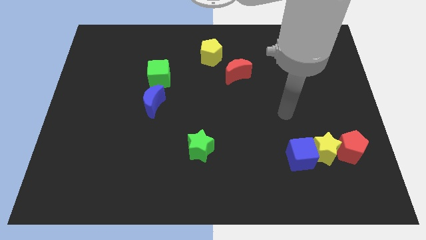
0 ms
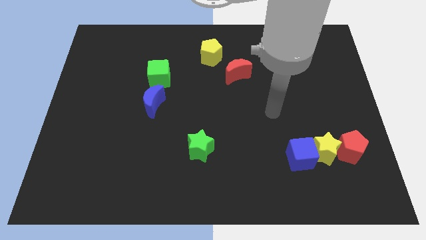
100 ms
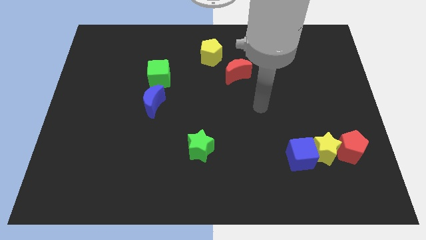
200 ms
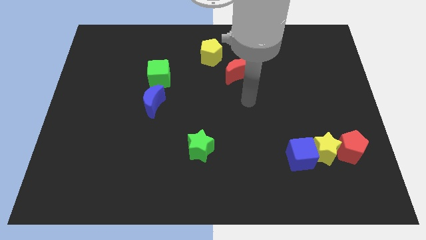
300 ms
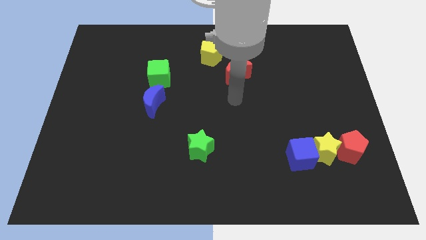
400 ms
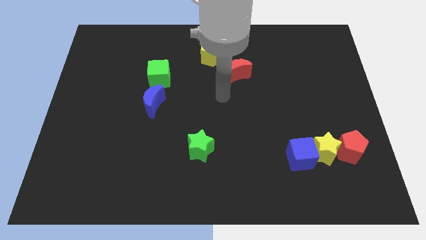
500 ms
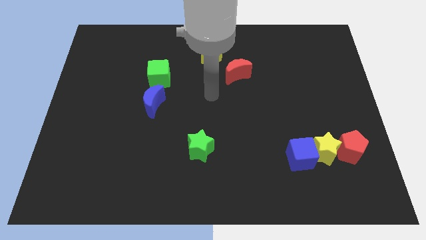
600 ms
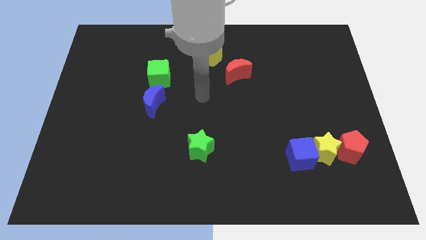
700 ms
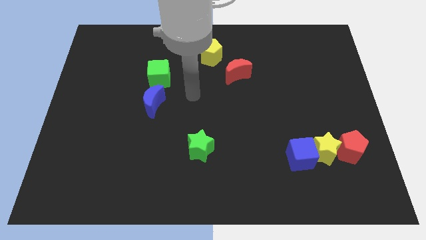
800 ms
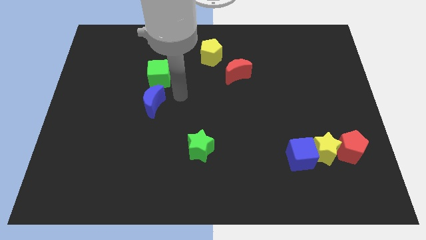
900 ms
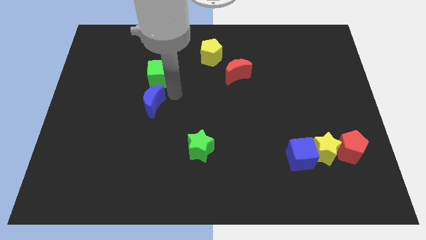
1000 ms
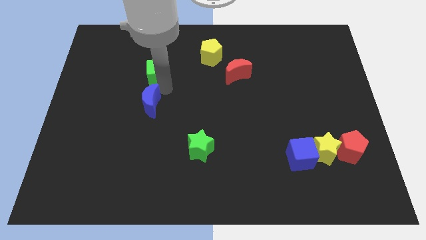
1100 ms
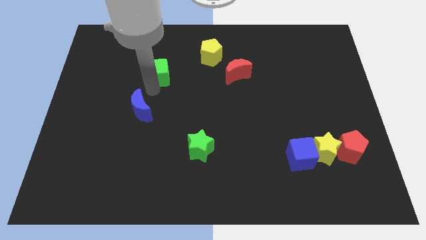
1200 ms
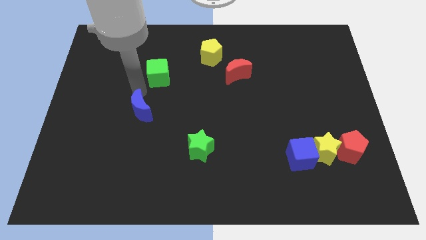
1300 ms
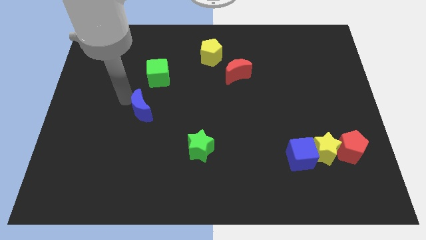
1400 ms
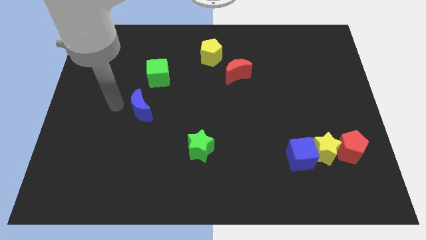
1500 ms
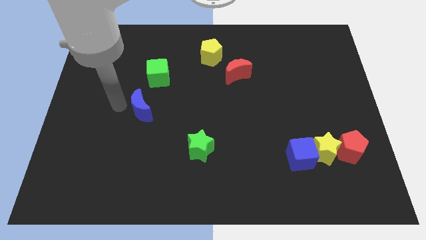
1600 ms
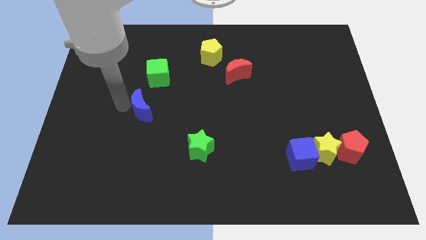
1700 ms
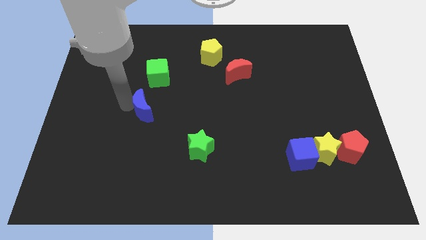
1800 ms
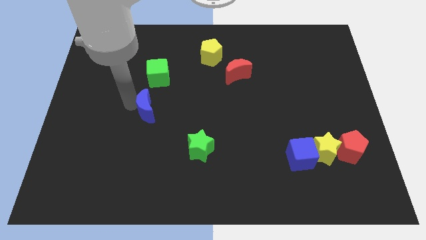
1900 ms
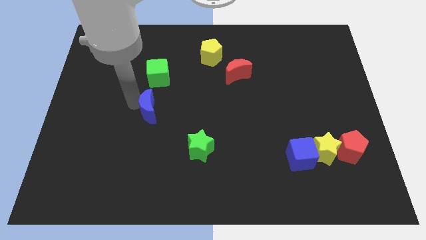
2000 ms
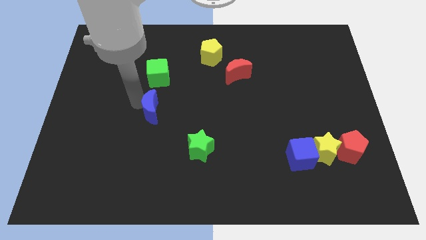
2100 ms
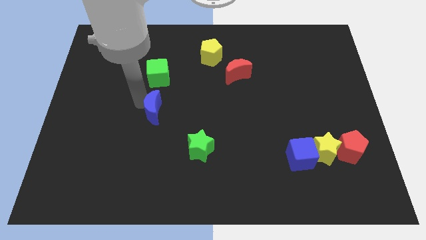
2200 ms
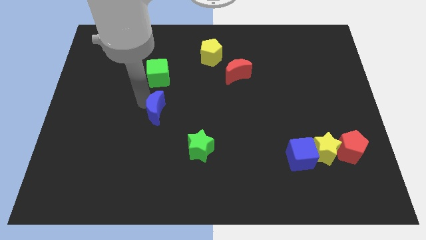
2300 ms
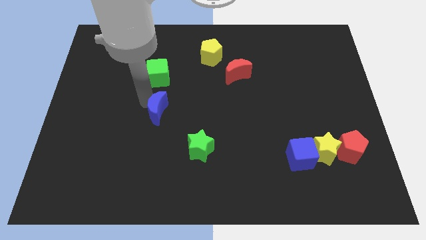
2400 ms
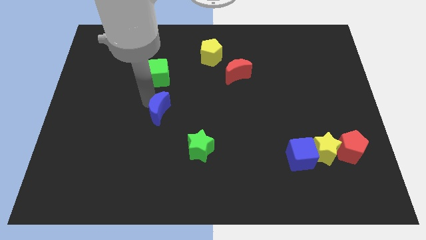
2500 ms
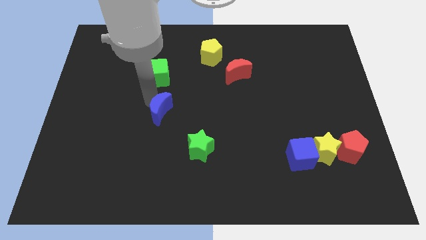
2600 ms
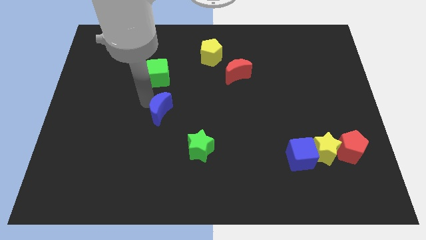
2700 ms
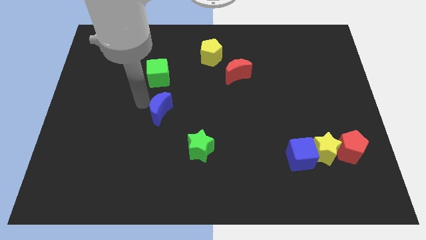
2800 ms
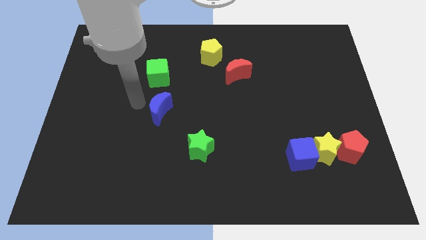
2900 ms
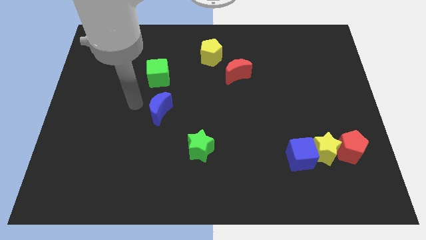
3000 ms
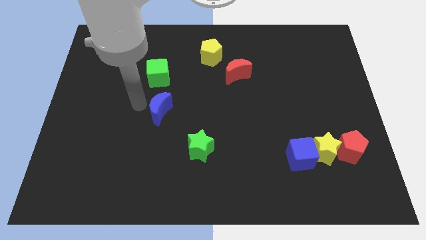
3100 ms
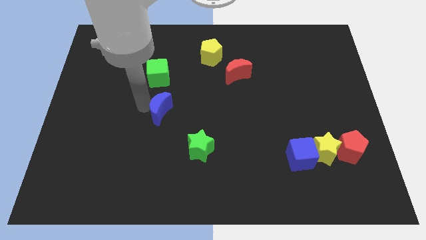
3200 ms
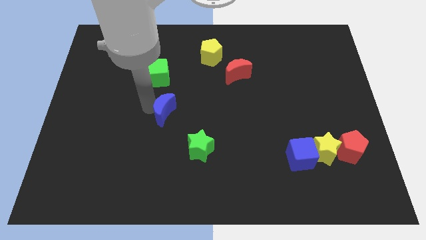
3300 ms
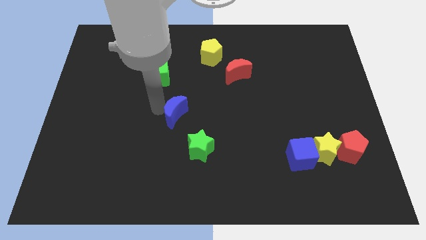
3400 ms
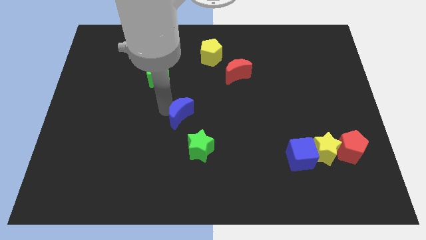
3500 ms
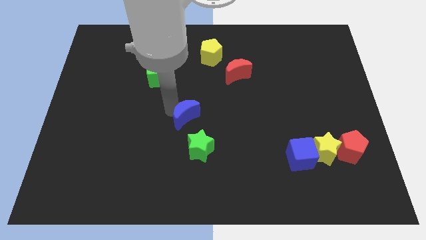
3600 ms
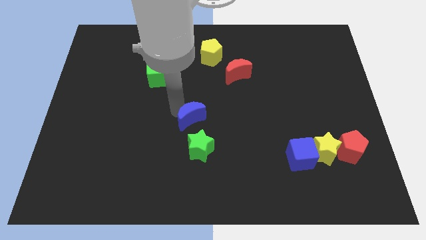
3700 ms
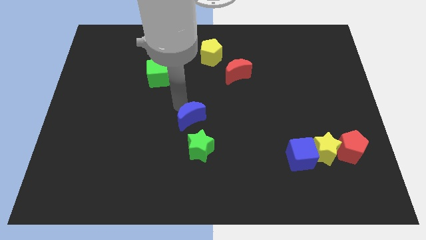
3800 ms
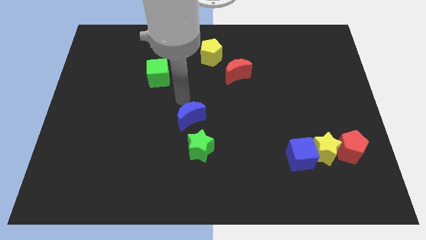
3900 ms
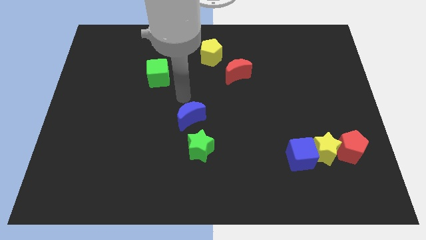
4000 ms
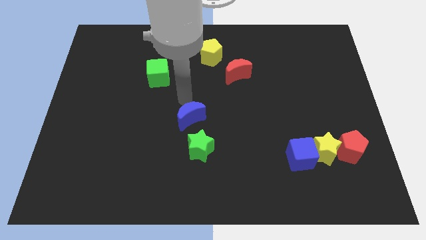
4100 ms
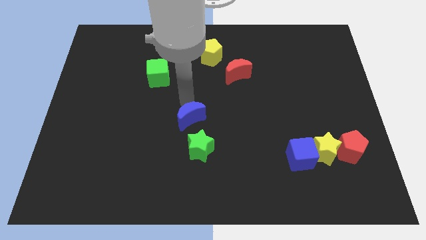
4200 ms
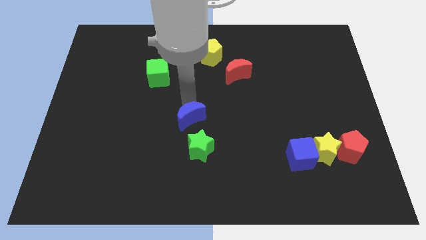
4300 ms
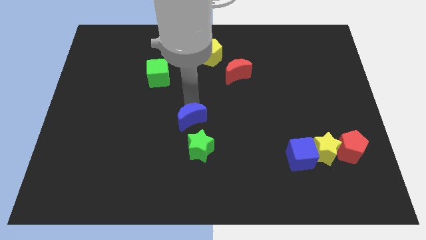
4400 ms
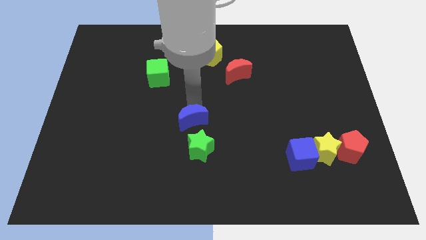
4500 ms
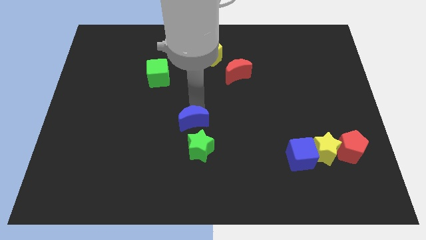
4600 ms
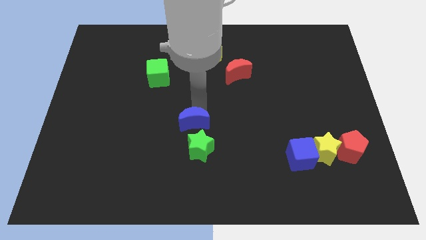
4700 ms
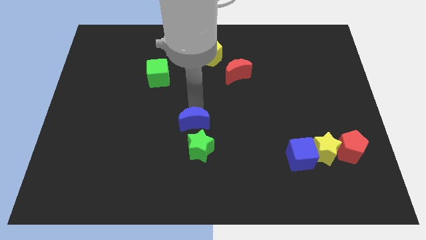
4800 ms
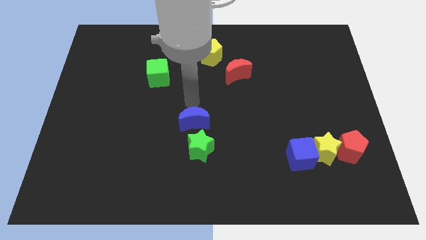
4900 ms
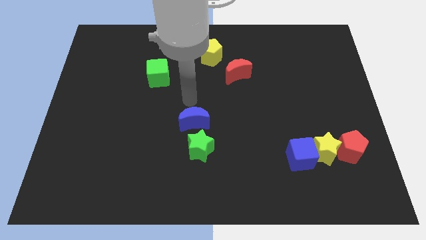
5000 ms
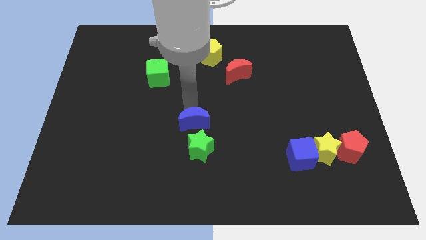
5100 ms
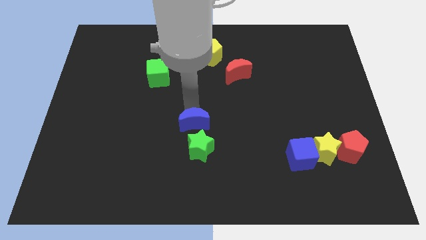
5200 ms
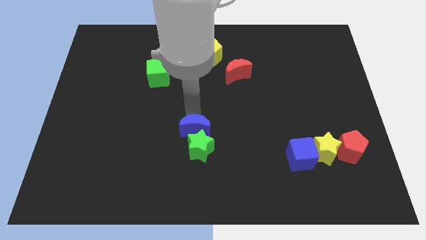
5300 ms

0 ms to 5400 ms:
move the blue moon towards the green star

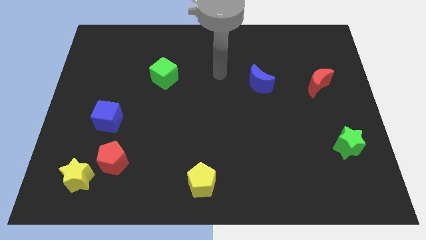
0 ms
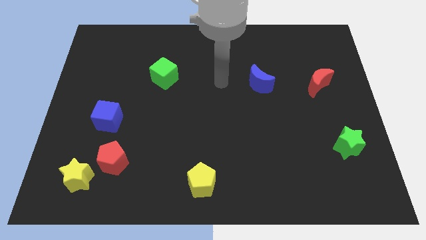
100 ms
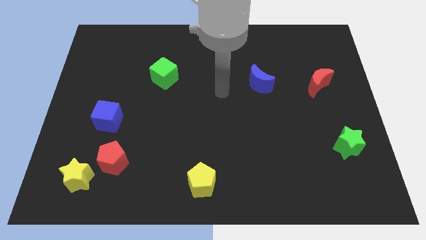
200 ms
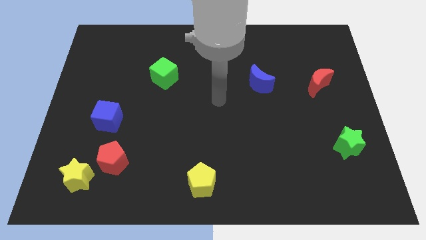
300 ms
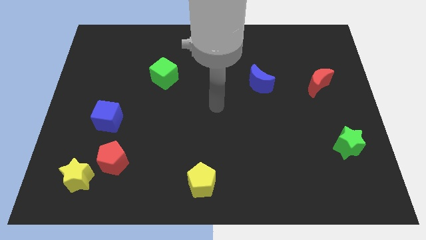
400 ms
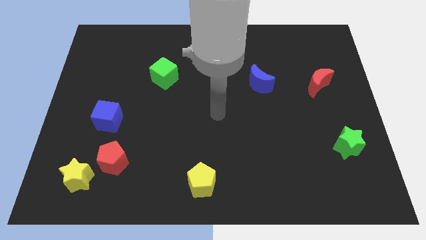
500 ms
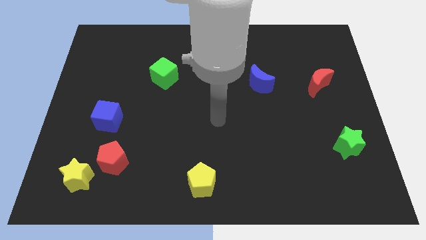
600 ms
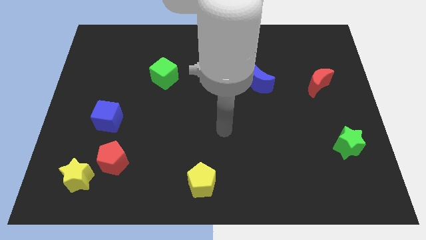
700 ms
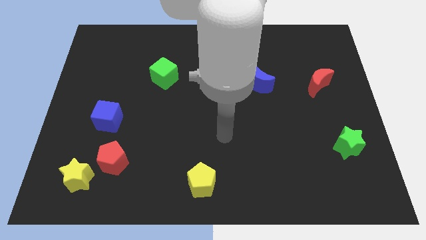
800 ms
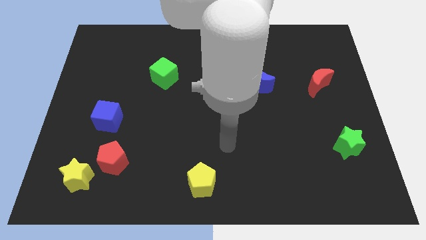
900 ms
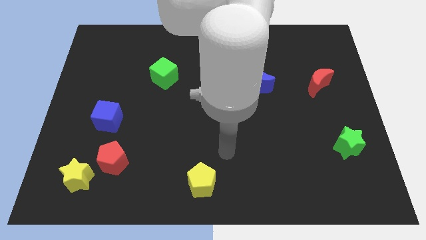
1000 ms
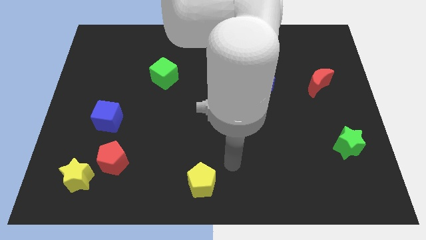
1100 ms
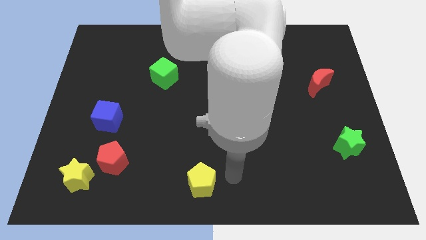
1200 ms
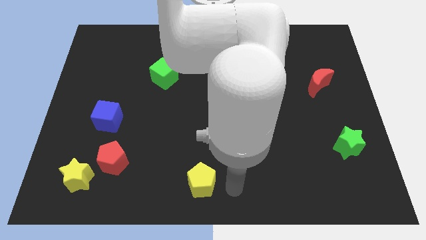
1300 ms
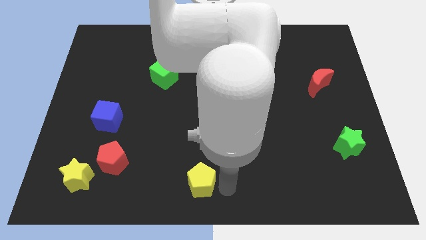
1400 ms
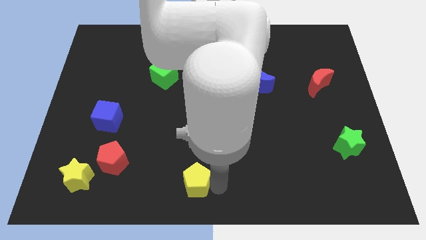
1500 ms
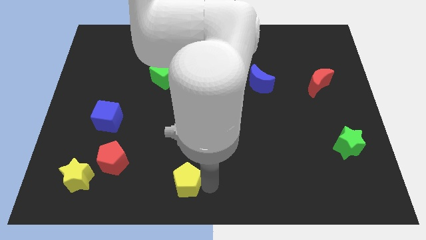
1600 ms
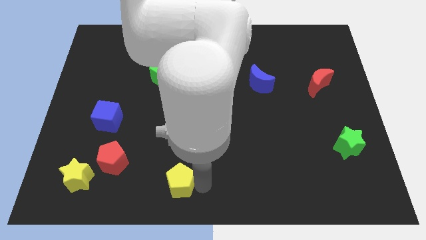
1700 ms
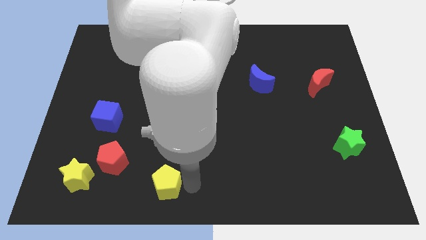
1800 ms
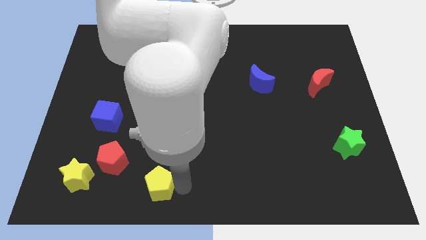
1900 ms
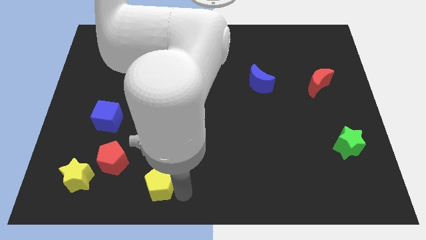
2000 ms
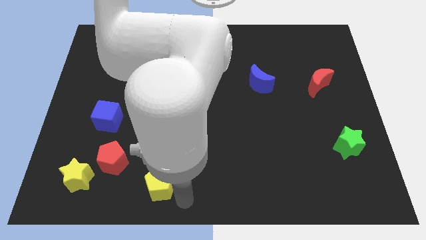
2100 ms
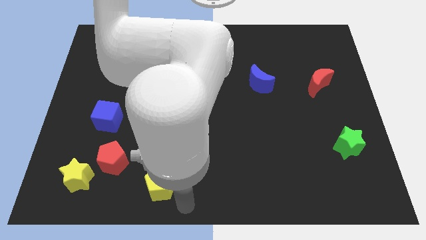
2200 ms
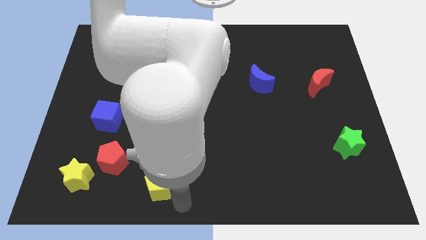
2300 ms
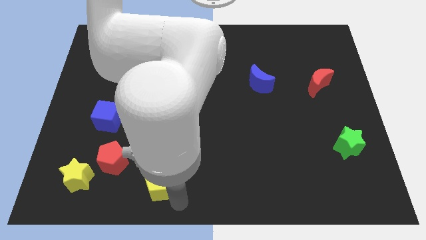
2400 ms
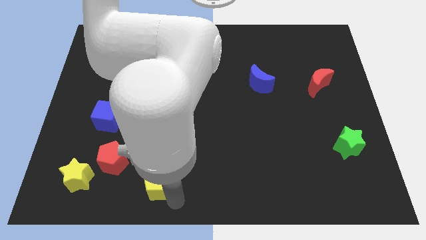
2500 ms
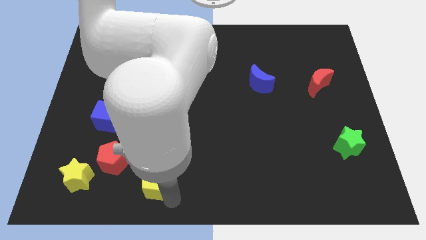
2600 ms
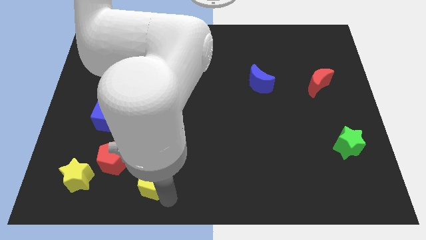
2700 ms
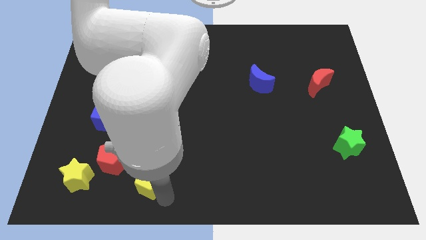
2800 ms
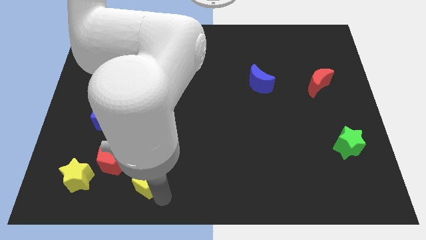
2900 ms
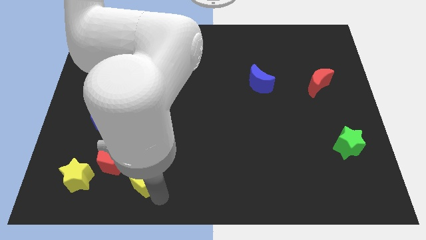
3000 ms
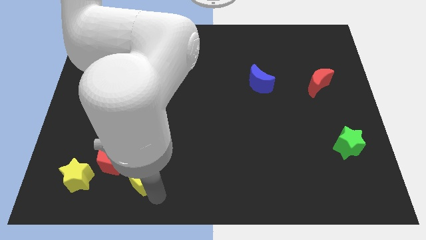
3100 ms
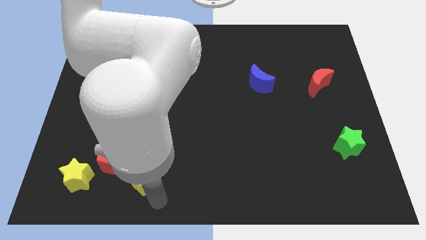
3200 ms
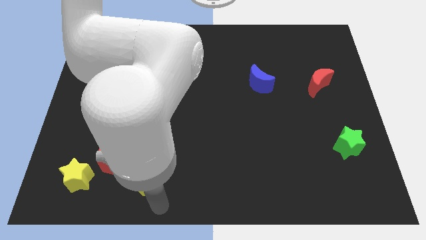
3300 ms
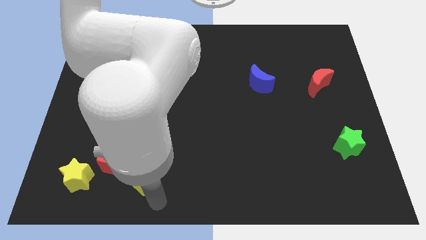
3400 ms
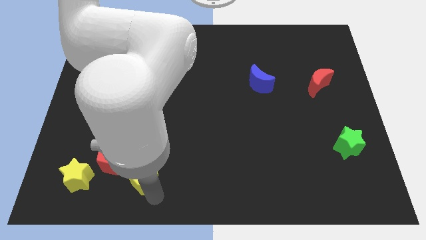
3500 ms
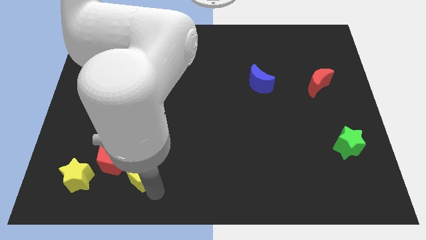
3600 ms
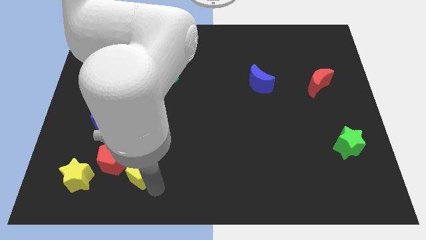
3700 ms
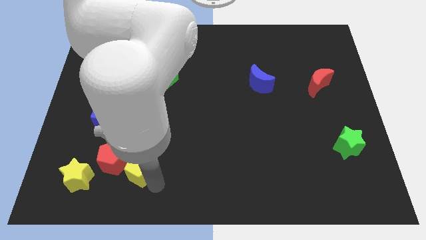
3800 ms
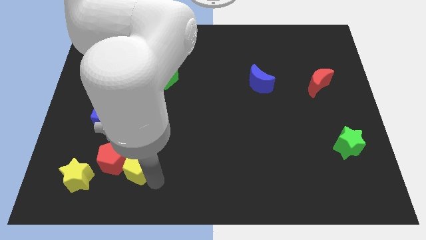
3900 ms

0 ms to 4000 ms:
push the yellow pentagon close to the red pentagon
